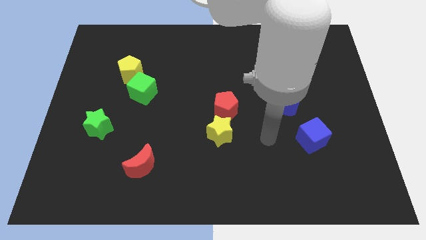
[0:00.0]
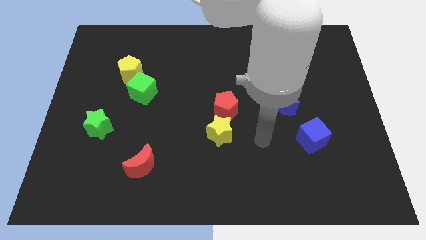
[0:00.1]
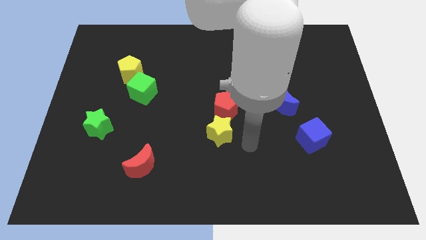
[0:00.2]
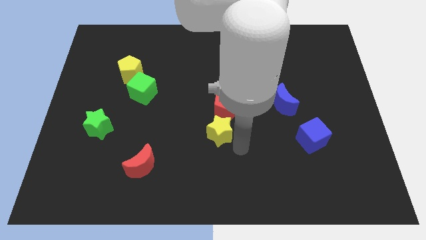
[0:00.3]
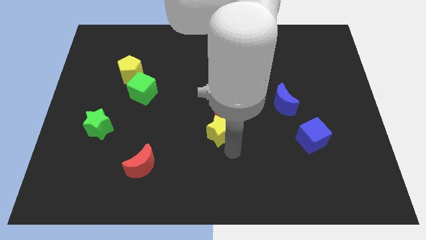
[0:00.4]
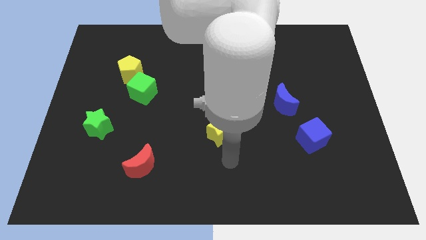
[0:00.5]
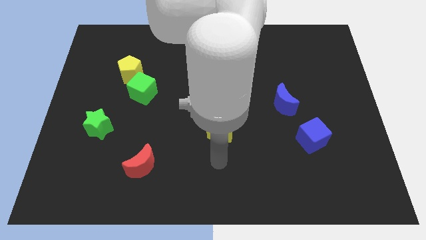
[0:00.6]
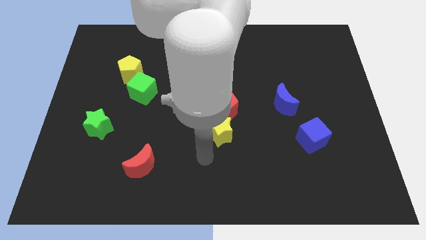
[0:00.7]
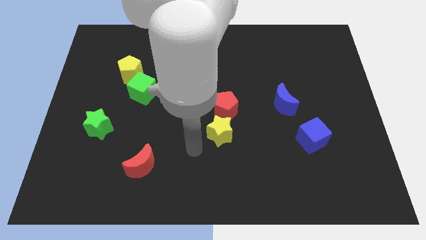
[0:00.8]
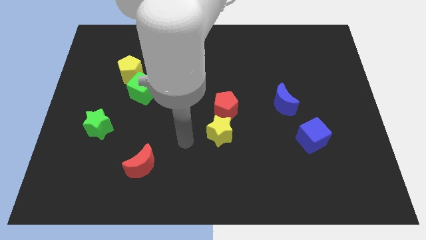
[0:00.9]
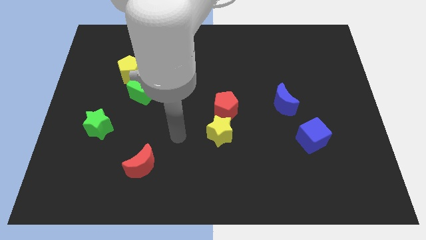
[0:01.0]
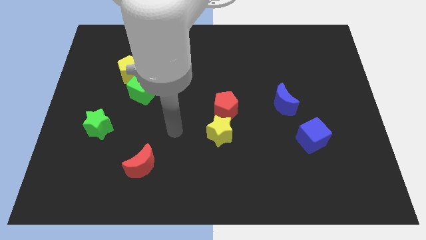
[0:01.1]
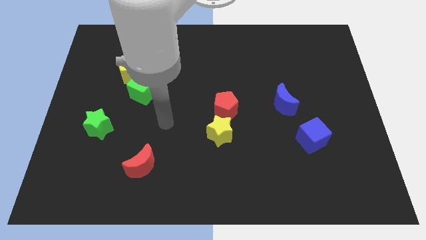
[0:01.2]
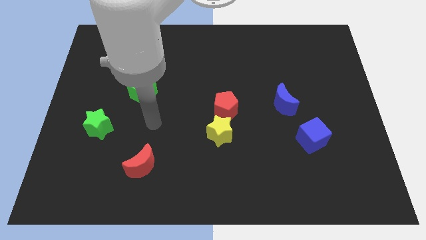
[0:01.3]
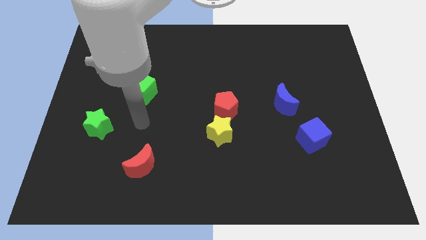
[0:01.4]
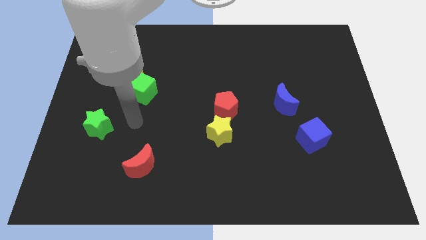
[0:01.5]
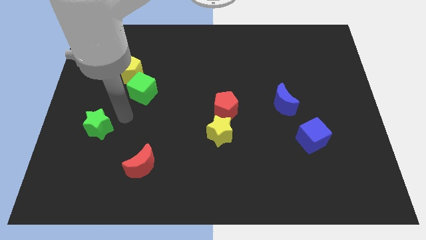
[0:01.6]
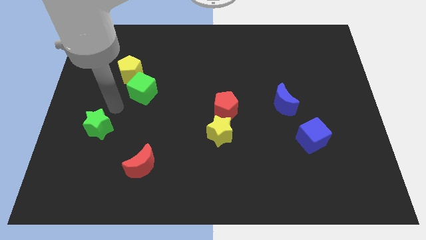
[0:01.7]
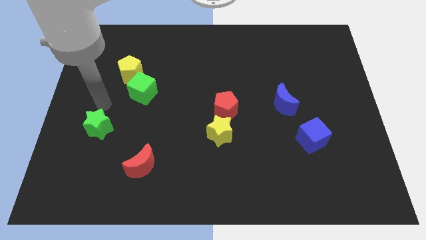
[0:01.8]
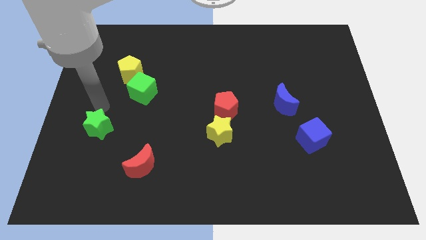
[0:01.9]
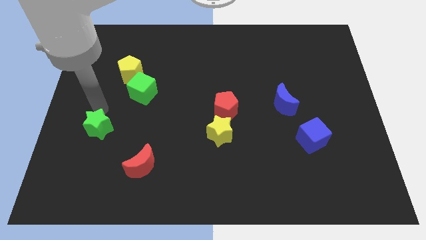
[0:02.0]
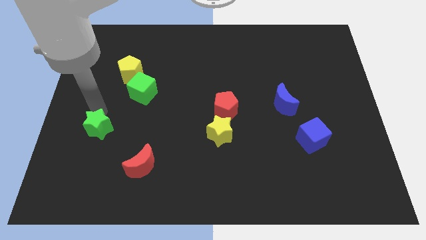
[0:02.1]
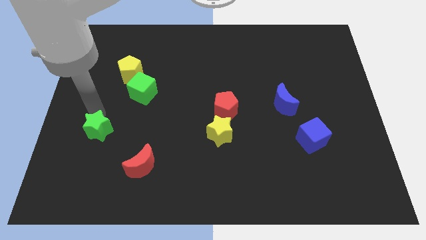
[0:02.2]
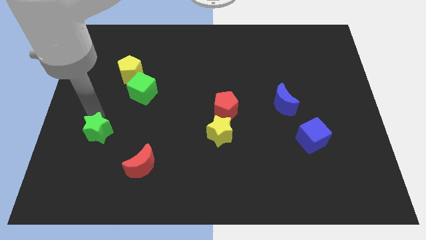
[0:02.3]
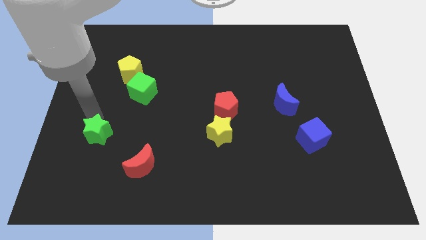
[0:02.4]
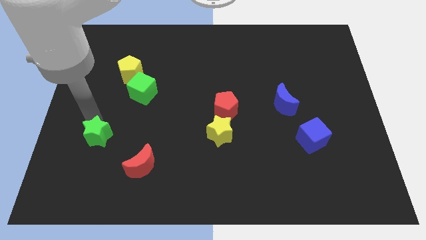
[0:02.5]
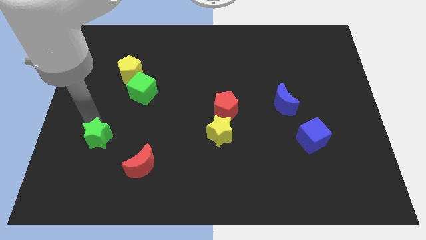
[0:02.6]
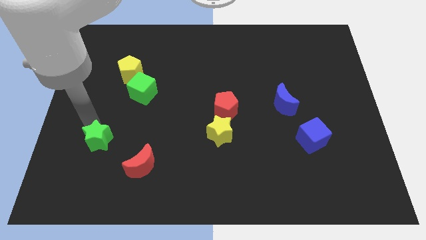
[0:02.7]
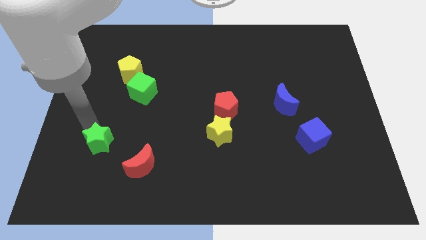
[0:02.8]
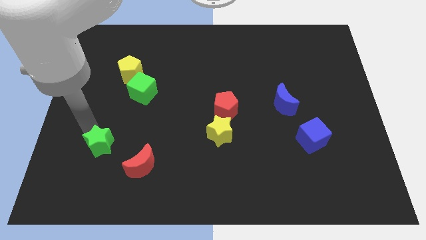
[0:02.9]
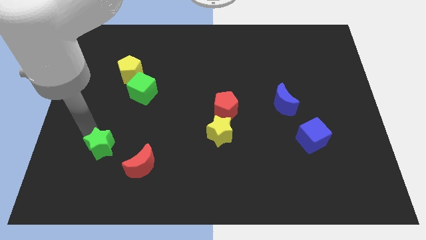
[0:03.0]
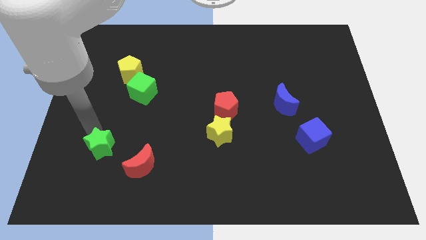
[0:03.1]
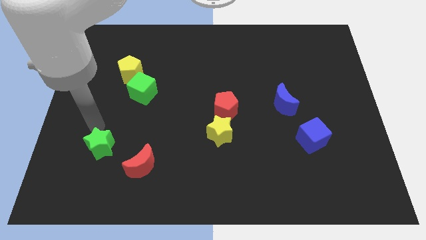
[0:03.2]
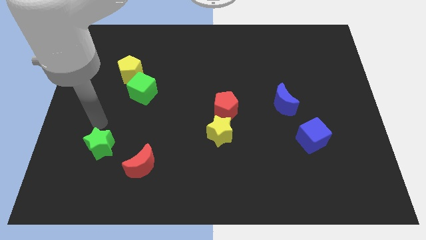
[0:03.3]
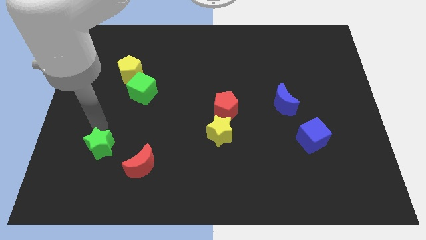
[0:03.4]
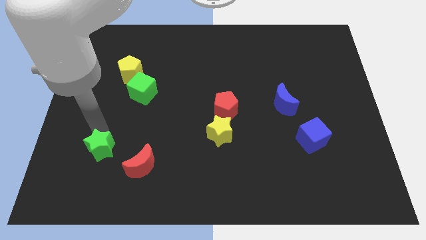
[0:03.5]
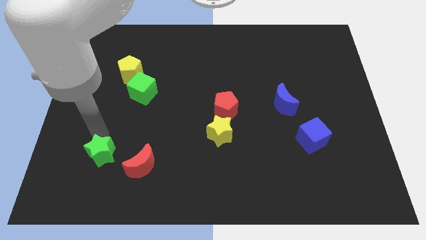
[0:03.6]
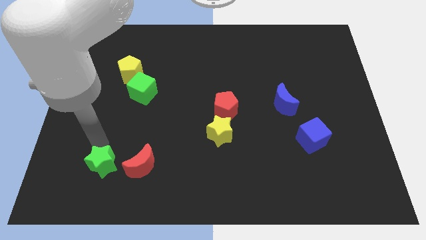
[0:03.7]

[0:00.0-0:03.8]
move the green star down and then to the right a bit

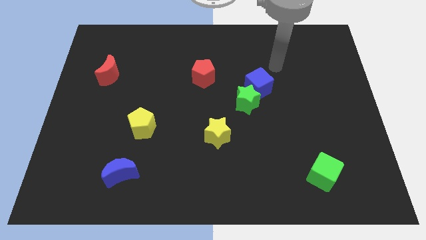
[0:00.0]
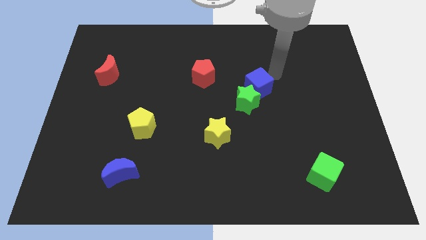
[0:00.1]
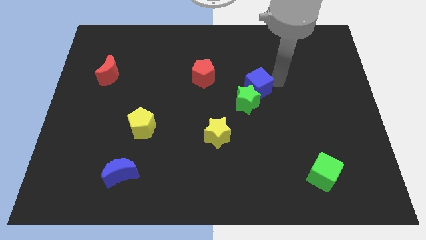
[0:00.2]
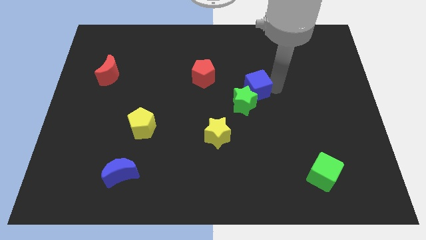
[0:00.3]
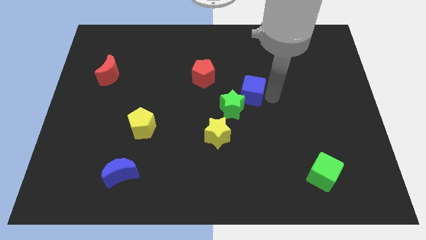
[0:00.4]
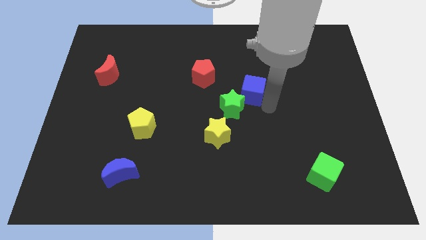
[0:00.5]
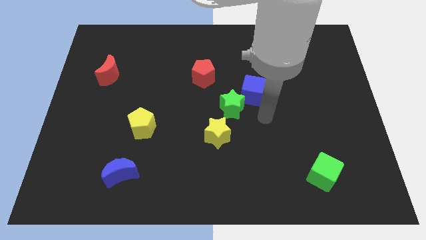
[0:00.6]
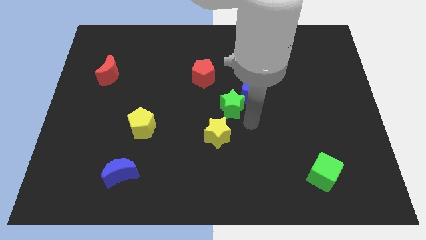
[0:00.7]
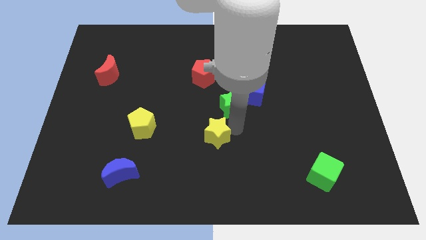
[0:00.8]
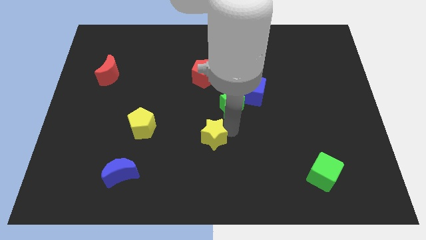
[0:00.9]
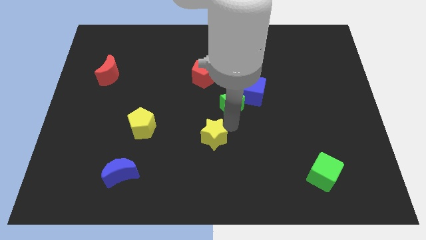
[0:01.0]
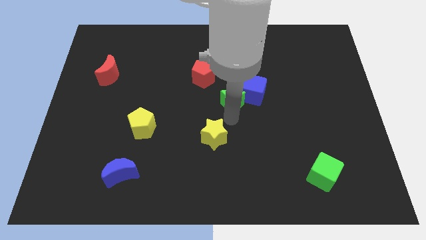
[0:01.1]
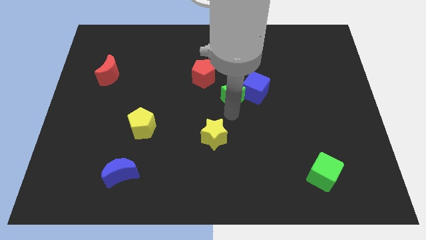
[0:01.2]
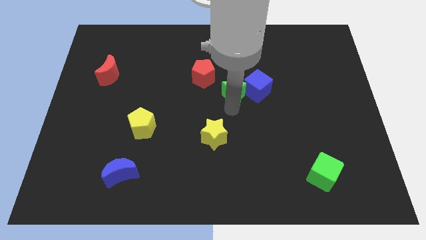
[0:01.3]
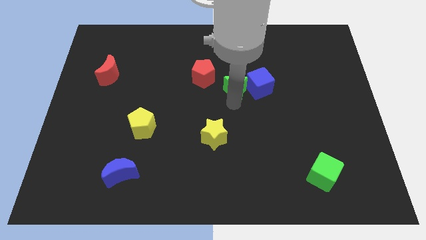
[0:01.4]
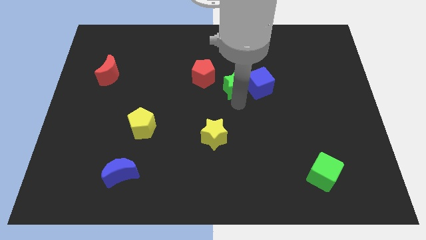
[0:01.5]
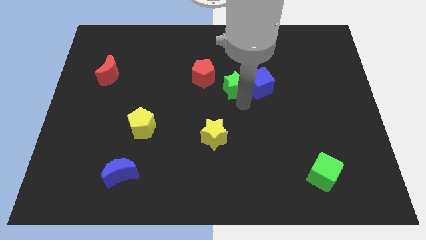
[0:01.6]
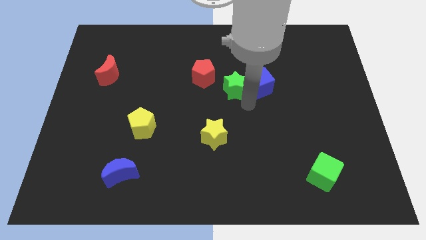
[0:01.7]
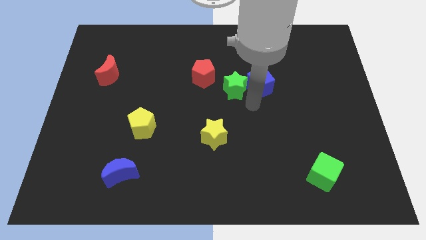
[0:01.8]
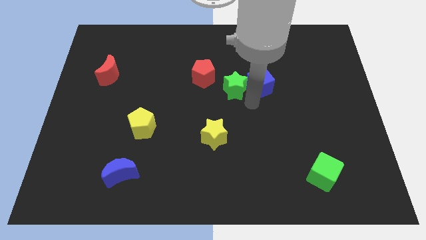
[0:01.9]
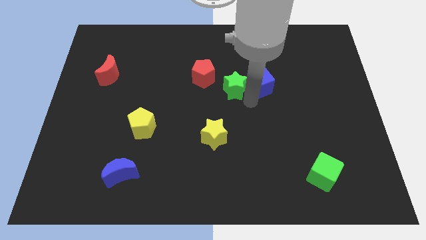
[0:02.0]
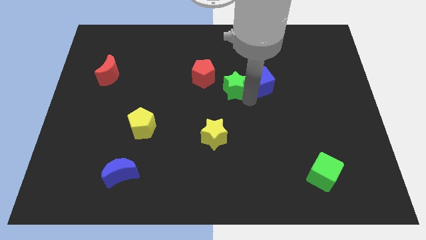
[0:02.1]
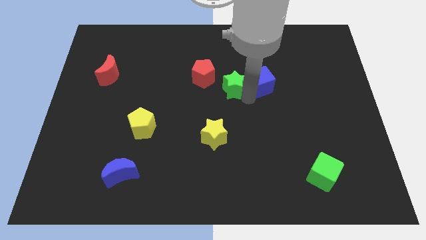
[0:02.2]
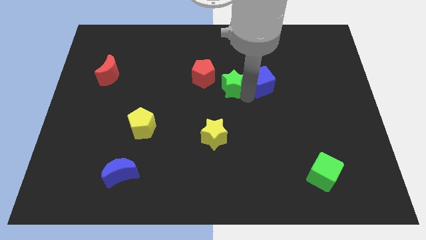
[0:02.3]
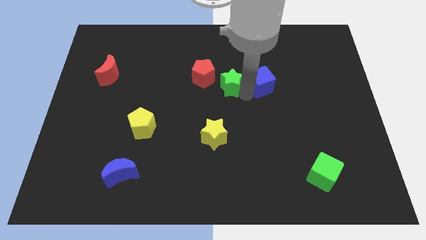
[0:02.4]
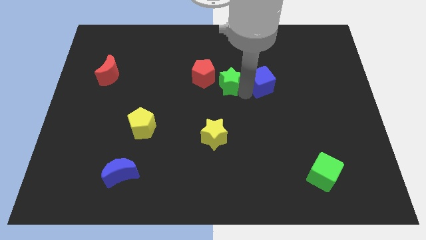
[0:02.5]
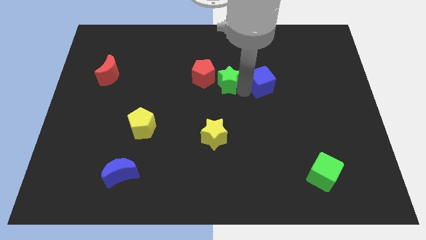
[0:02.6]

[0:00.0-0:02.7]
slightly push the green star up and then to the left

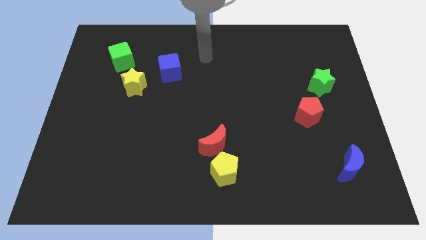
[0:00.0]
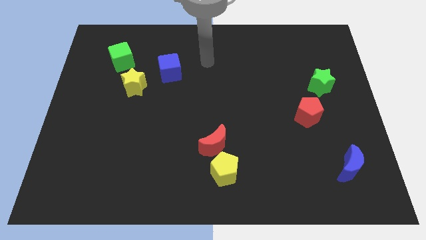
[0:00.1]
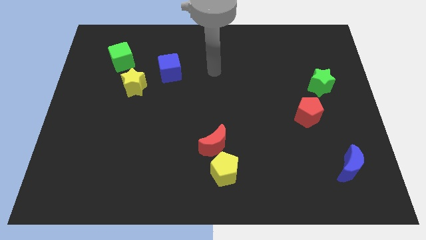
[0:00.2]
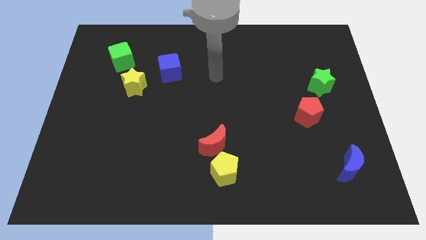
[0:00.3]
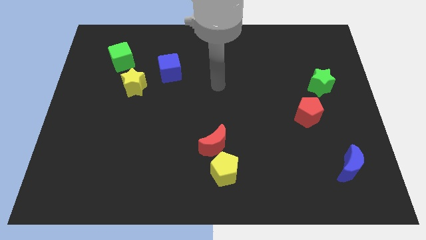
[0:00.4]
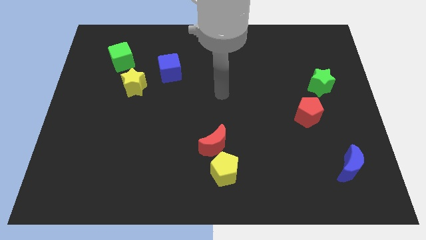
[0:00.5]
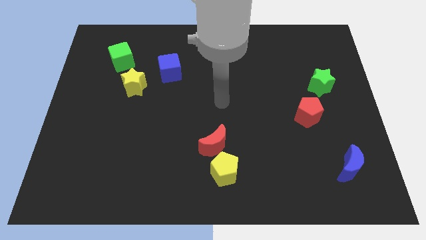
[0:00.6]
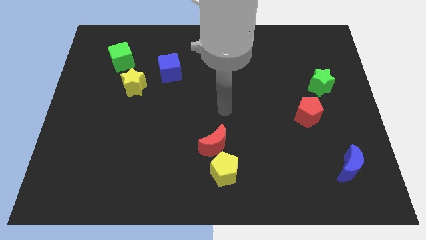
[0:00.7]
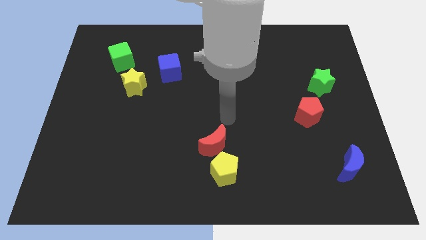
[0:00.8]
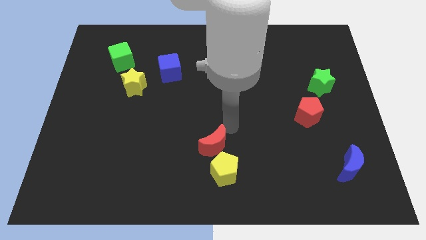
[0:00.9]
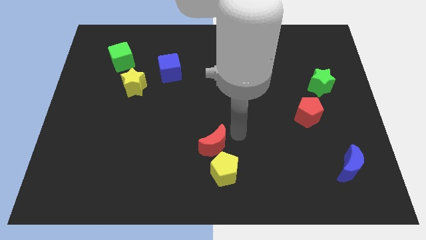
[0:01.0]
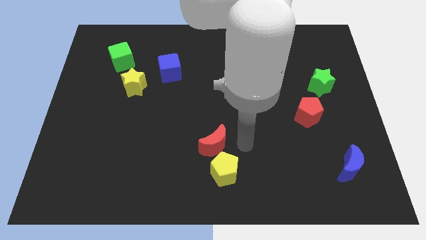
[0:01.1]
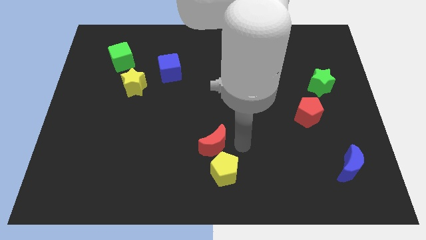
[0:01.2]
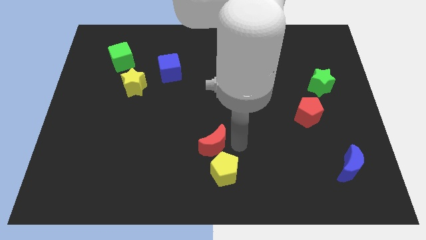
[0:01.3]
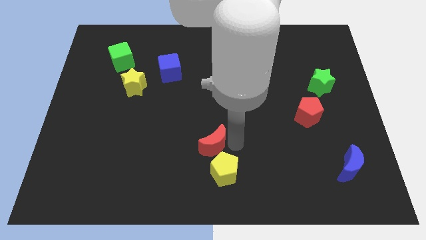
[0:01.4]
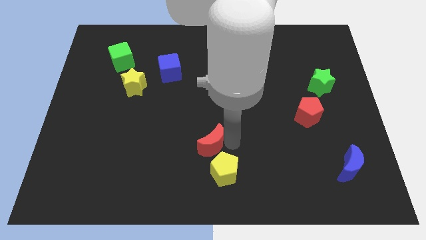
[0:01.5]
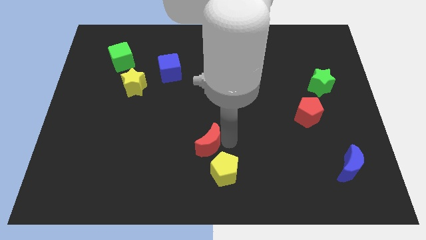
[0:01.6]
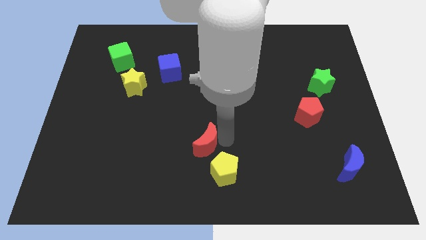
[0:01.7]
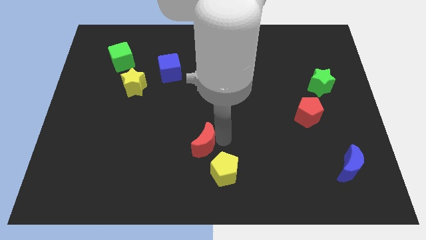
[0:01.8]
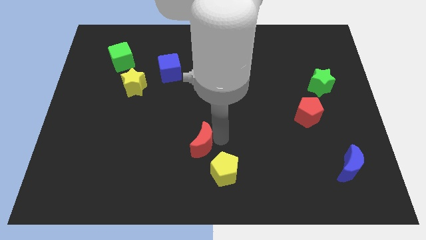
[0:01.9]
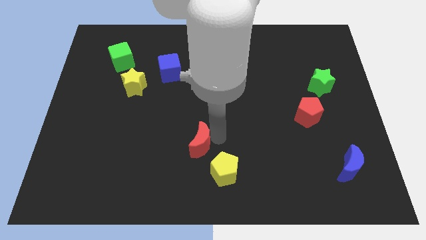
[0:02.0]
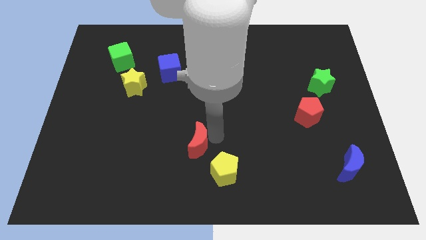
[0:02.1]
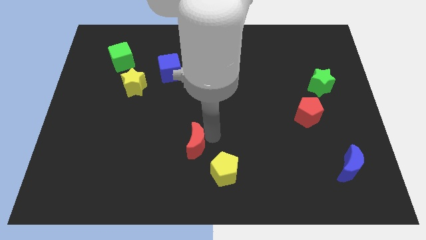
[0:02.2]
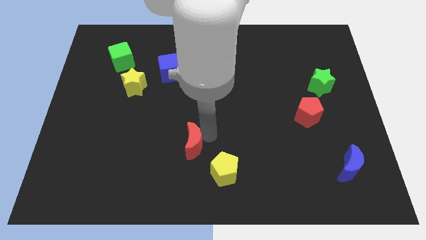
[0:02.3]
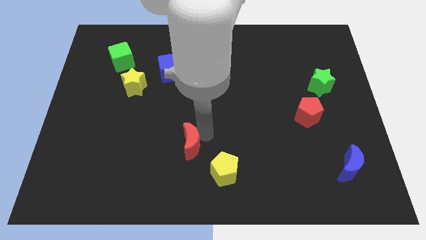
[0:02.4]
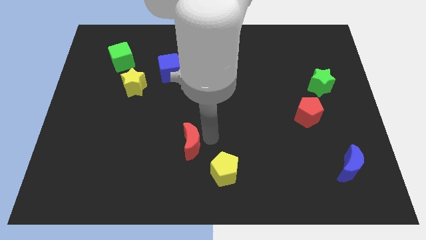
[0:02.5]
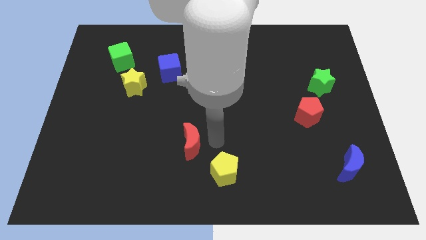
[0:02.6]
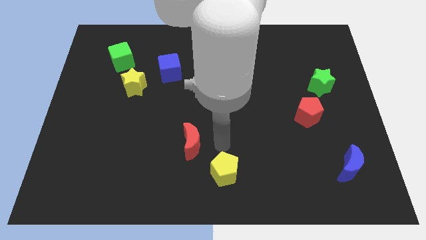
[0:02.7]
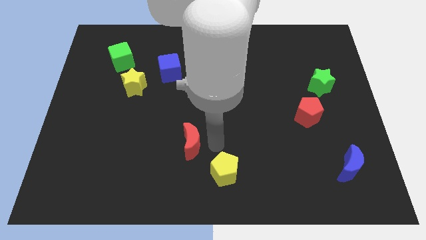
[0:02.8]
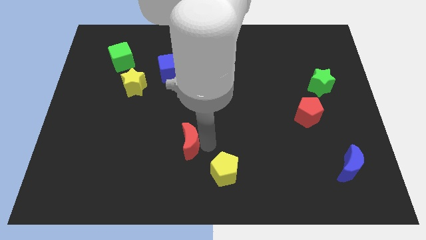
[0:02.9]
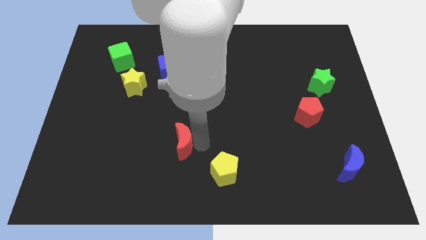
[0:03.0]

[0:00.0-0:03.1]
slightly slide the red moon to the left
